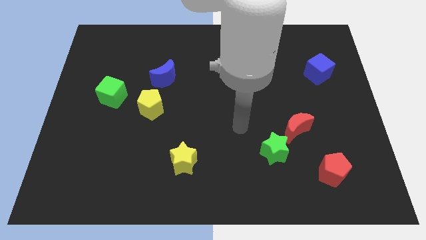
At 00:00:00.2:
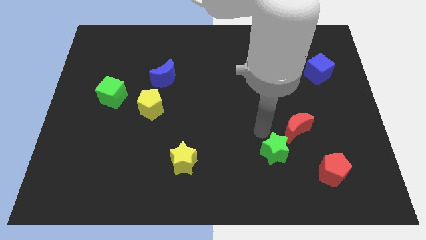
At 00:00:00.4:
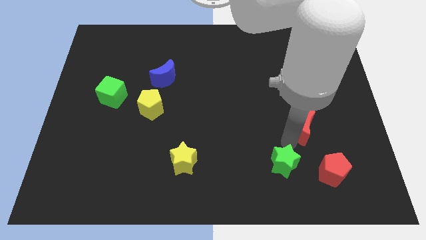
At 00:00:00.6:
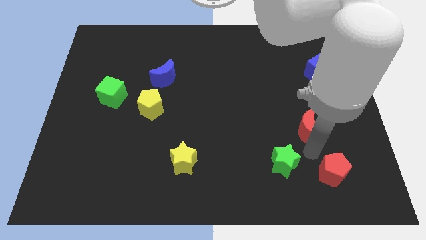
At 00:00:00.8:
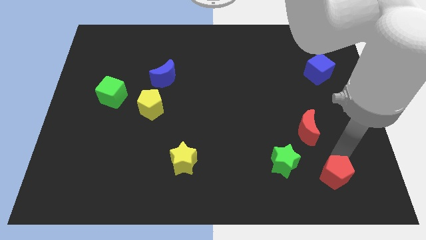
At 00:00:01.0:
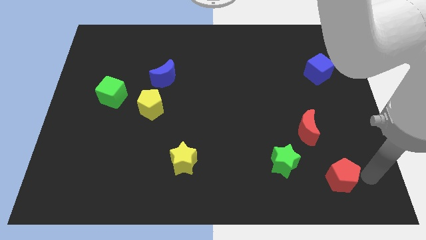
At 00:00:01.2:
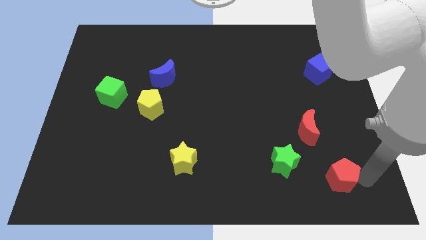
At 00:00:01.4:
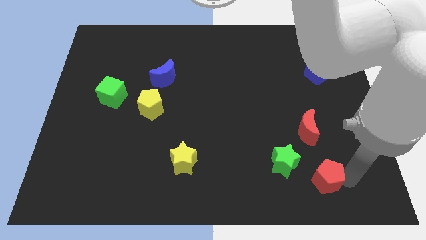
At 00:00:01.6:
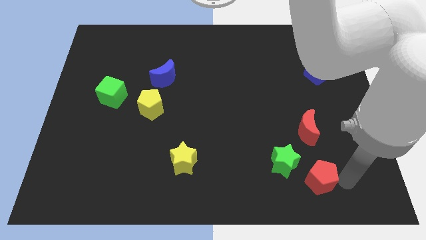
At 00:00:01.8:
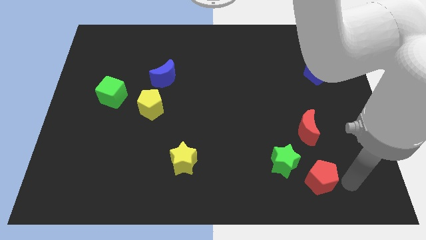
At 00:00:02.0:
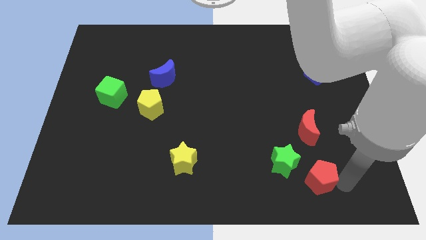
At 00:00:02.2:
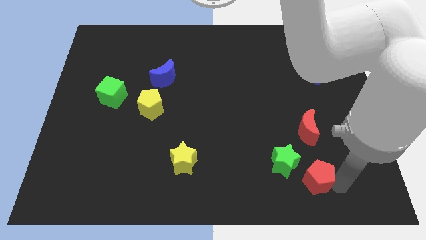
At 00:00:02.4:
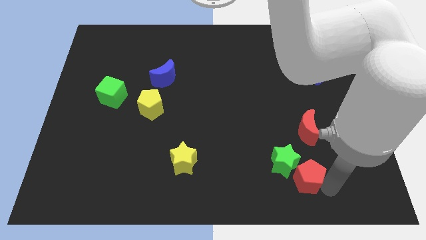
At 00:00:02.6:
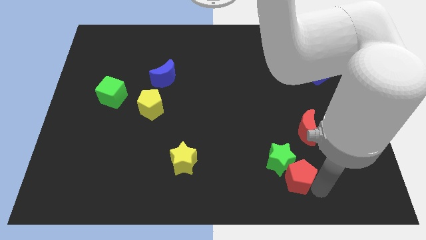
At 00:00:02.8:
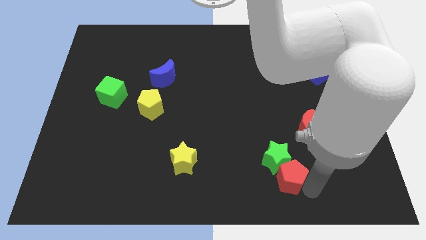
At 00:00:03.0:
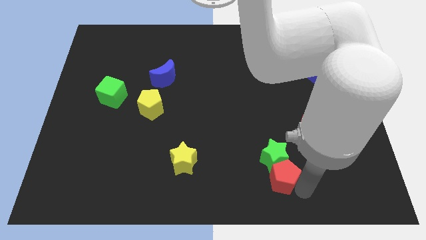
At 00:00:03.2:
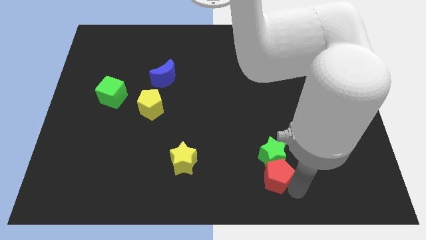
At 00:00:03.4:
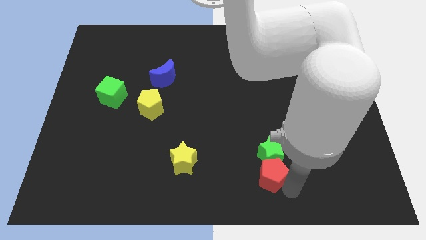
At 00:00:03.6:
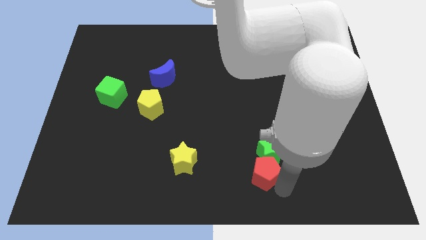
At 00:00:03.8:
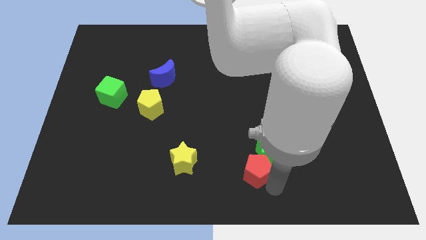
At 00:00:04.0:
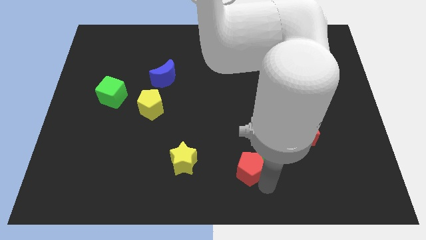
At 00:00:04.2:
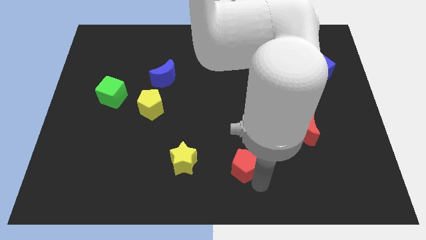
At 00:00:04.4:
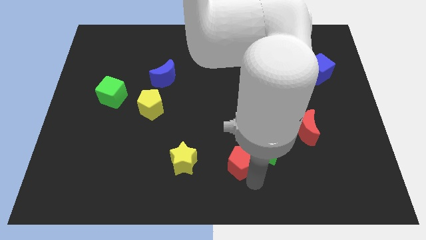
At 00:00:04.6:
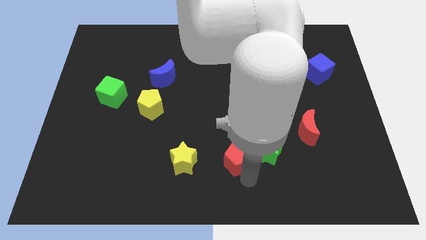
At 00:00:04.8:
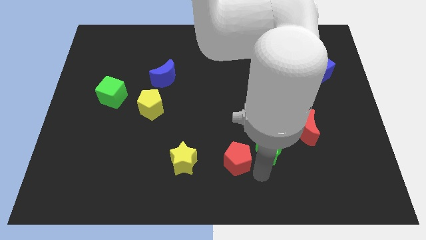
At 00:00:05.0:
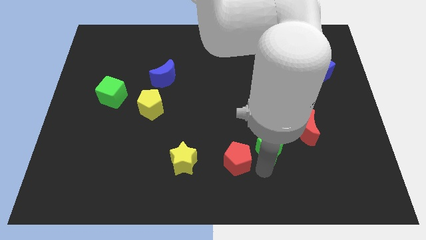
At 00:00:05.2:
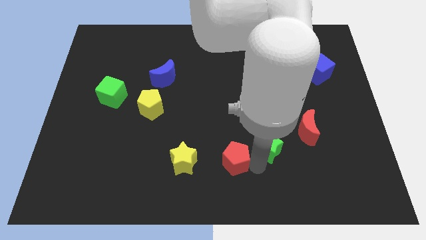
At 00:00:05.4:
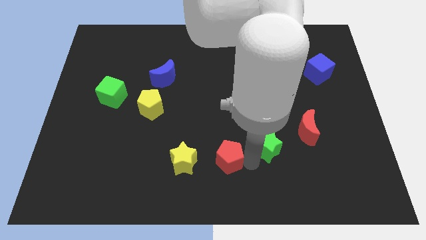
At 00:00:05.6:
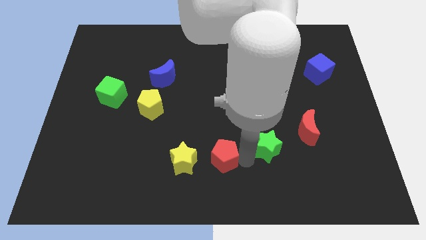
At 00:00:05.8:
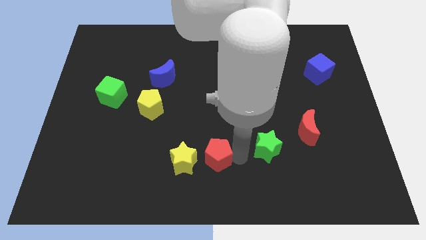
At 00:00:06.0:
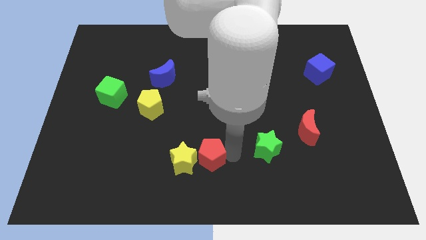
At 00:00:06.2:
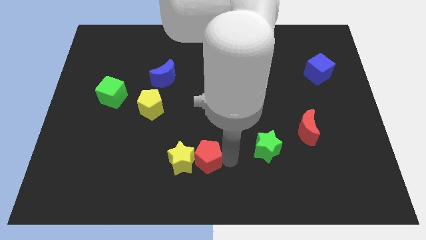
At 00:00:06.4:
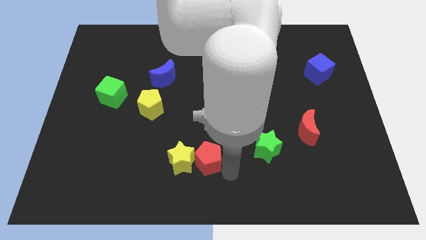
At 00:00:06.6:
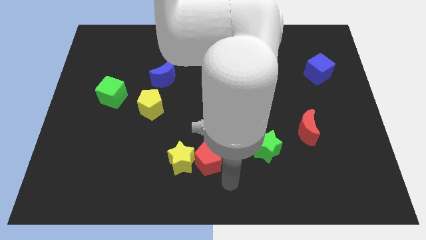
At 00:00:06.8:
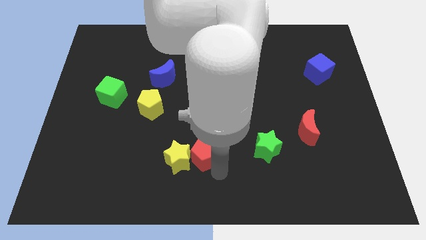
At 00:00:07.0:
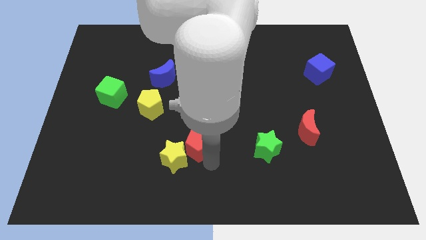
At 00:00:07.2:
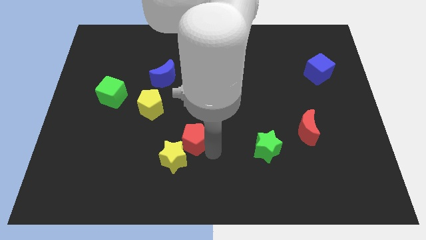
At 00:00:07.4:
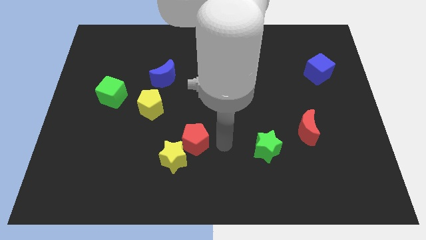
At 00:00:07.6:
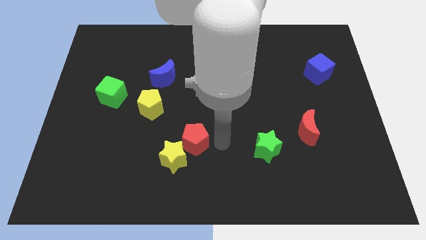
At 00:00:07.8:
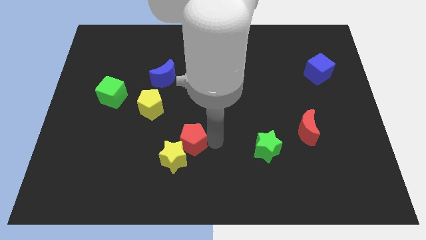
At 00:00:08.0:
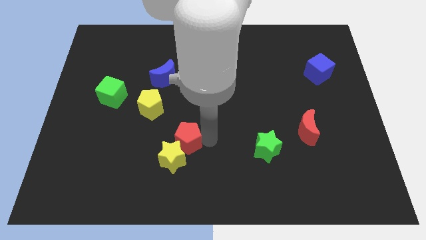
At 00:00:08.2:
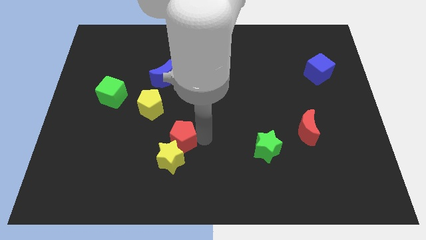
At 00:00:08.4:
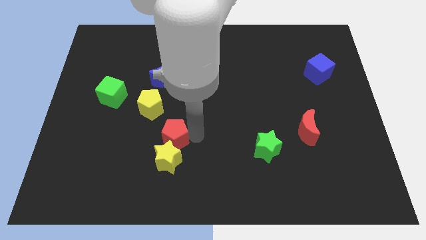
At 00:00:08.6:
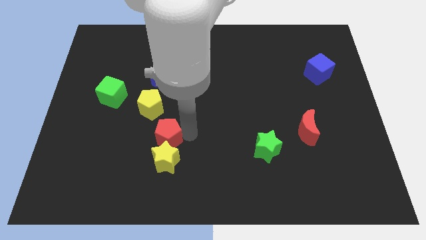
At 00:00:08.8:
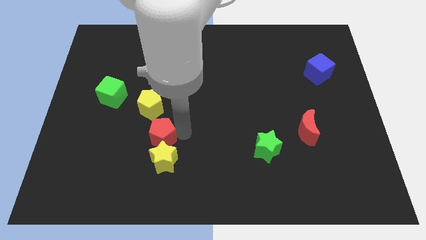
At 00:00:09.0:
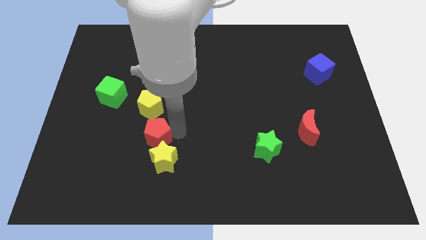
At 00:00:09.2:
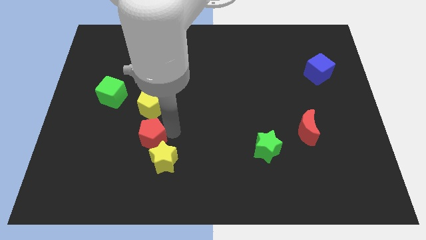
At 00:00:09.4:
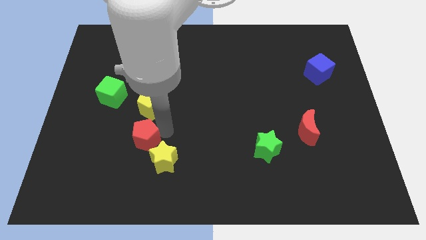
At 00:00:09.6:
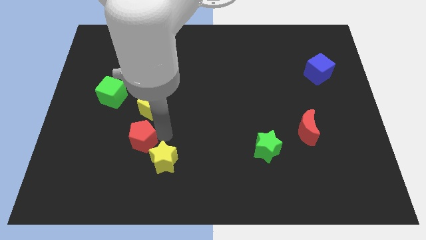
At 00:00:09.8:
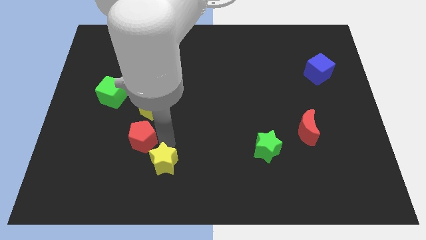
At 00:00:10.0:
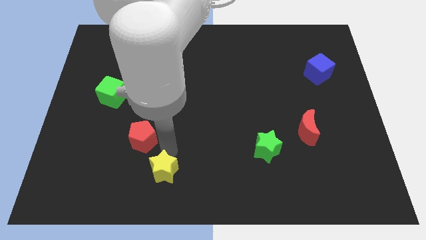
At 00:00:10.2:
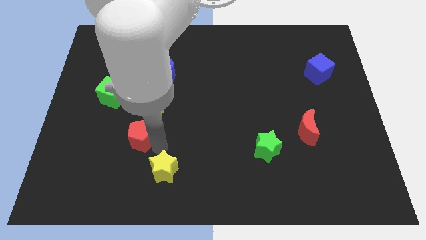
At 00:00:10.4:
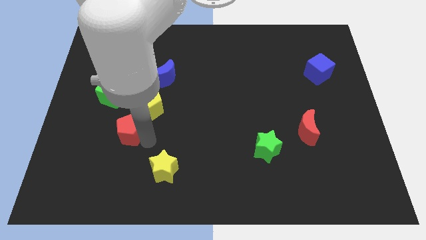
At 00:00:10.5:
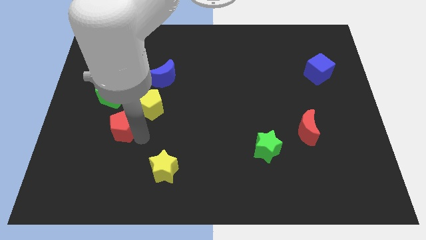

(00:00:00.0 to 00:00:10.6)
push the red pentagon to the bottom side of the green cube

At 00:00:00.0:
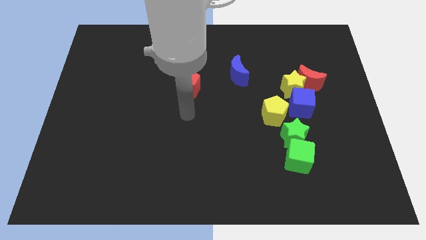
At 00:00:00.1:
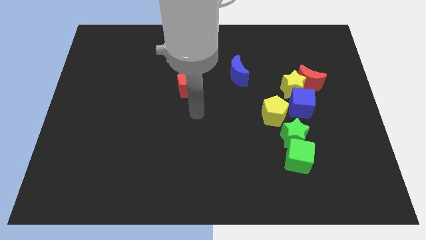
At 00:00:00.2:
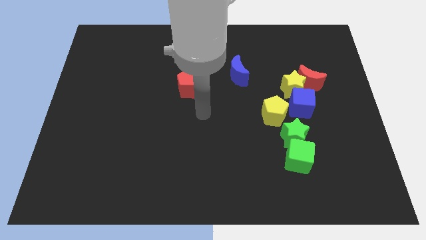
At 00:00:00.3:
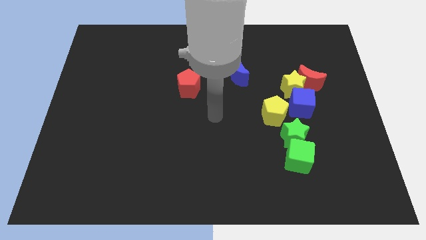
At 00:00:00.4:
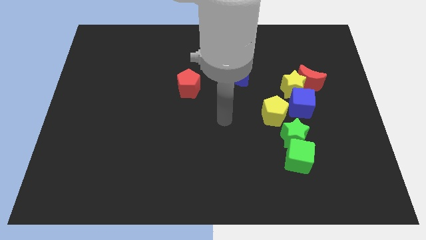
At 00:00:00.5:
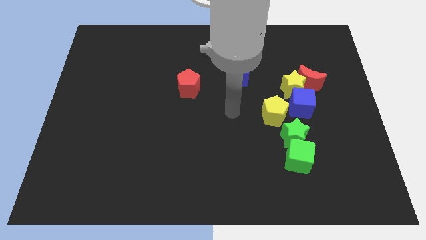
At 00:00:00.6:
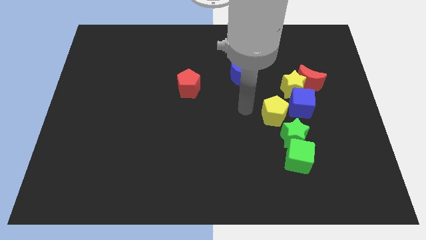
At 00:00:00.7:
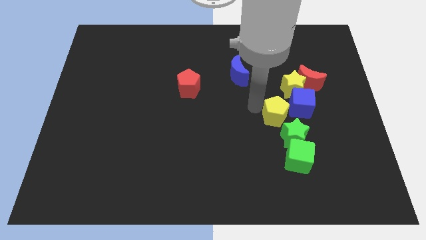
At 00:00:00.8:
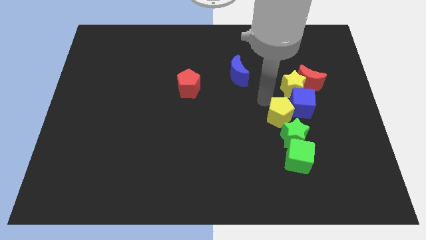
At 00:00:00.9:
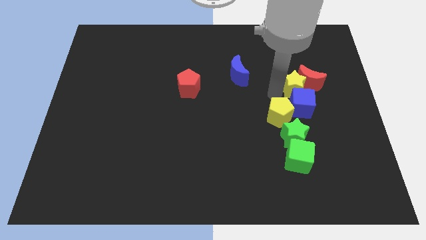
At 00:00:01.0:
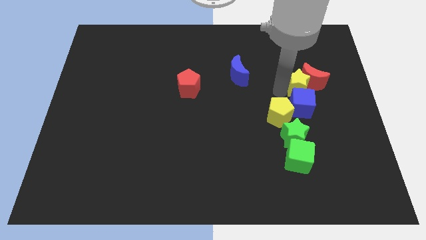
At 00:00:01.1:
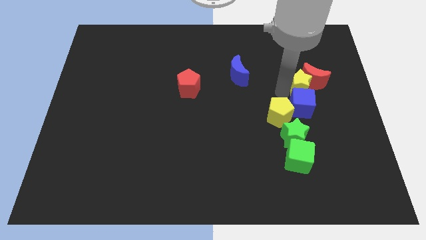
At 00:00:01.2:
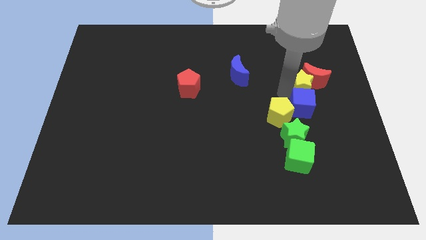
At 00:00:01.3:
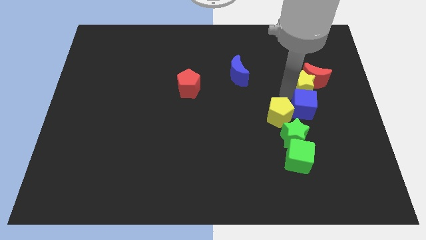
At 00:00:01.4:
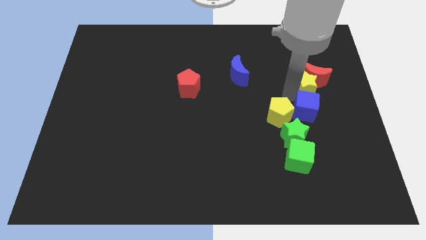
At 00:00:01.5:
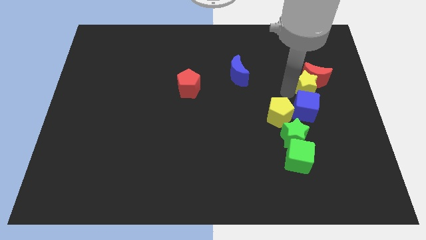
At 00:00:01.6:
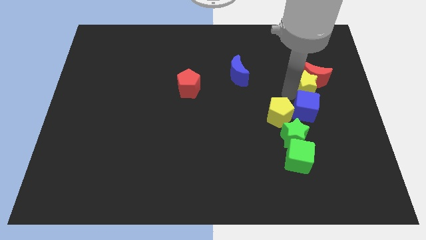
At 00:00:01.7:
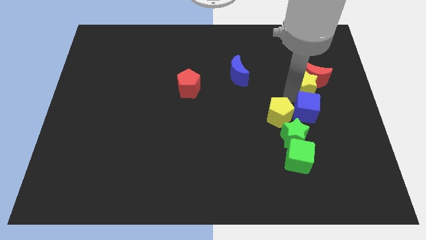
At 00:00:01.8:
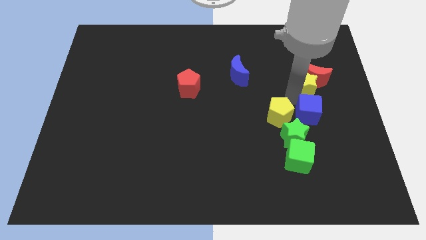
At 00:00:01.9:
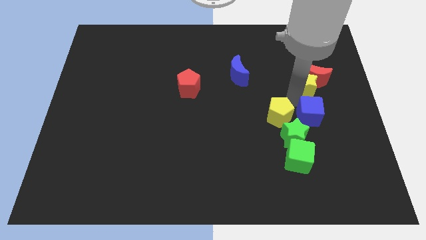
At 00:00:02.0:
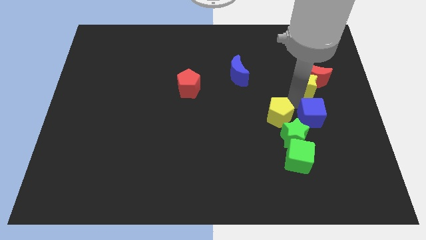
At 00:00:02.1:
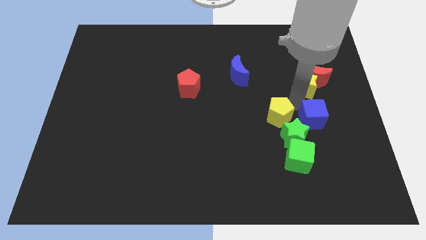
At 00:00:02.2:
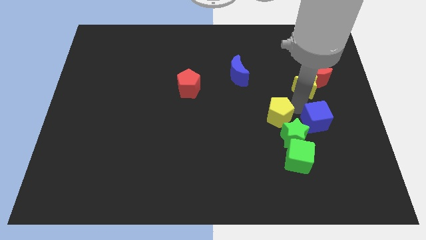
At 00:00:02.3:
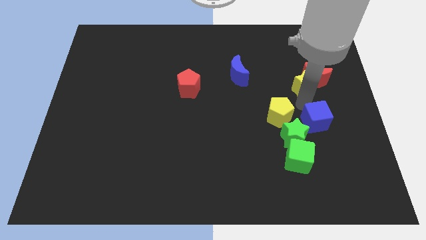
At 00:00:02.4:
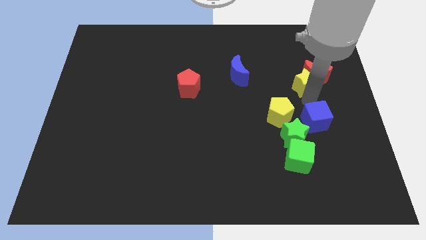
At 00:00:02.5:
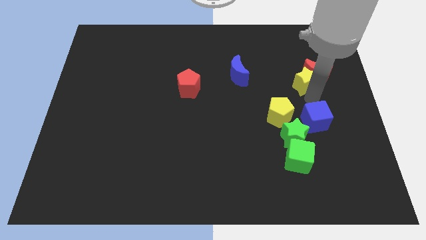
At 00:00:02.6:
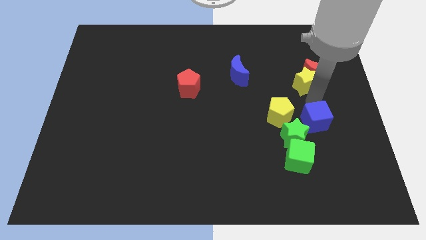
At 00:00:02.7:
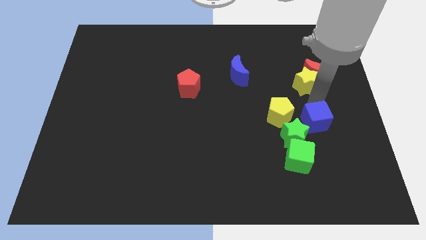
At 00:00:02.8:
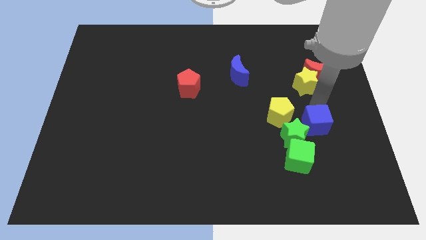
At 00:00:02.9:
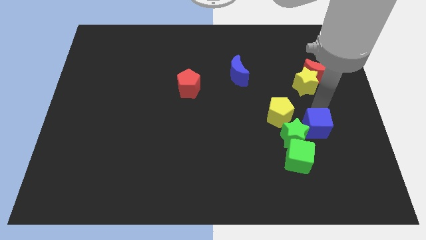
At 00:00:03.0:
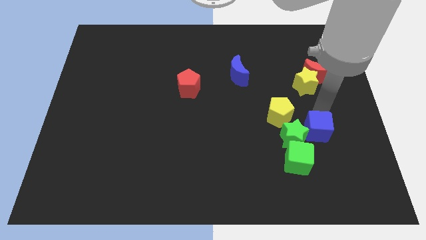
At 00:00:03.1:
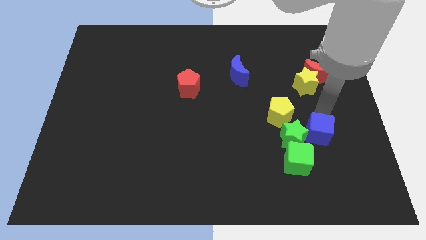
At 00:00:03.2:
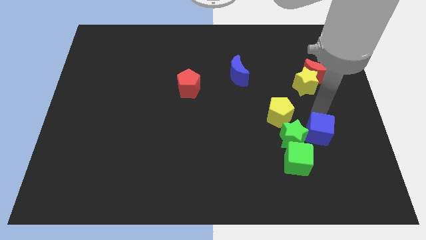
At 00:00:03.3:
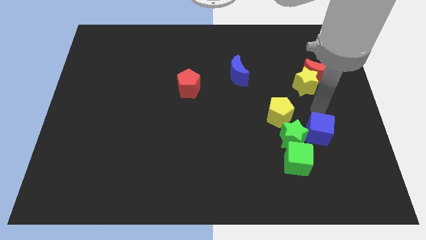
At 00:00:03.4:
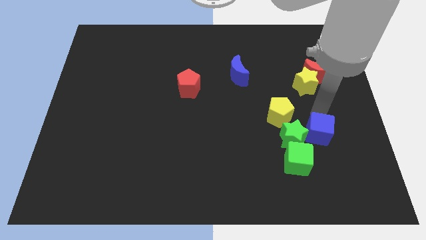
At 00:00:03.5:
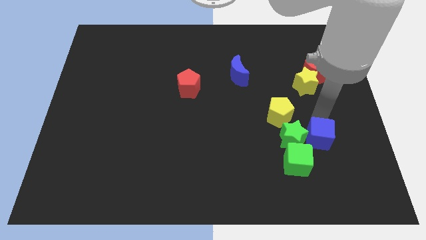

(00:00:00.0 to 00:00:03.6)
move the blue cube to the bottom right of the green star
